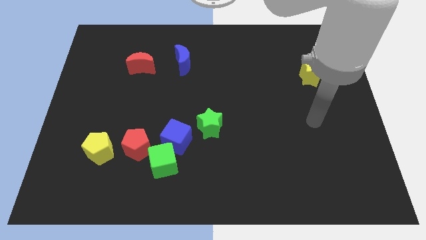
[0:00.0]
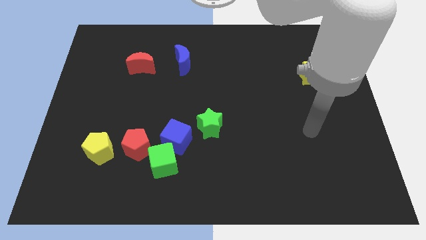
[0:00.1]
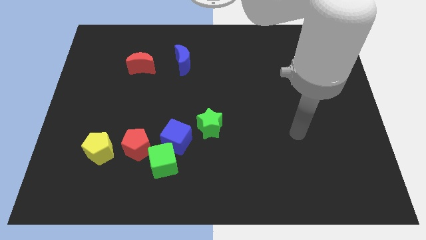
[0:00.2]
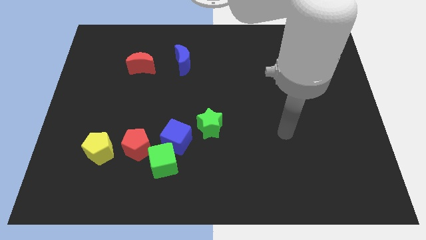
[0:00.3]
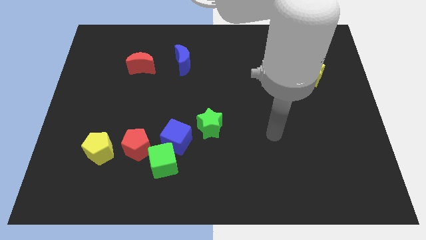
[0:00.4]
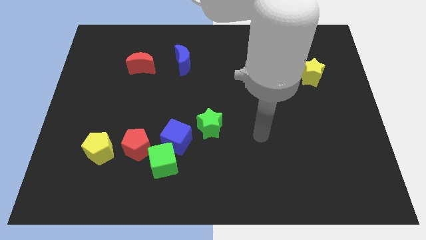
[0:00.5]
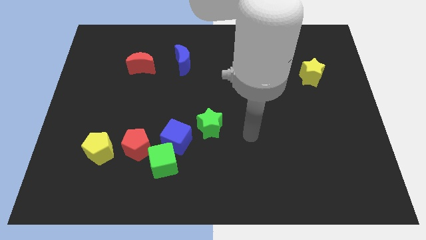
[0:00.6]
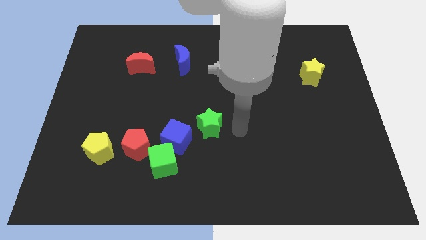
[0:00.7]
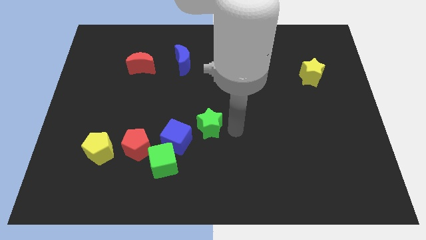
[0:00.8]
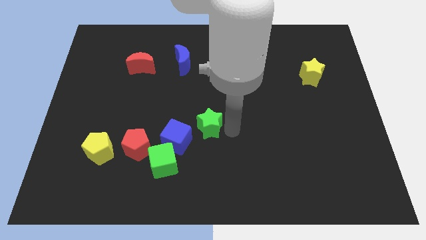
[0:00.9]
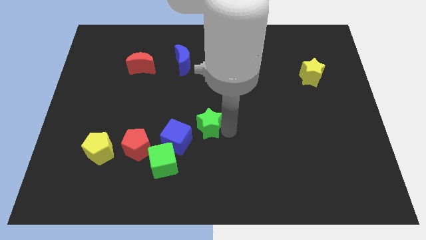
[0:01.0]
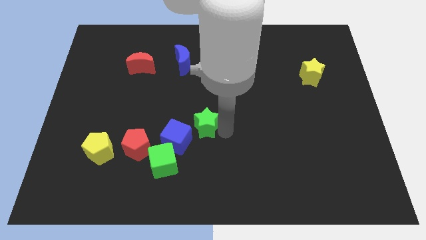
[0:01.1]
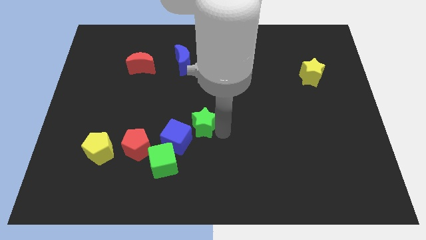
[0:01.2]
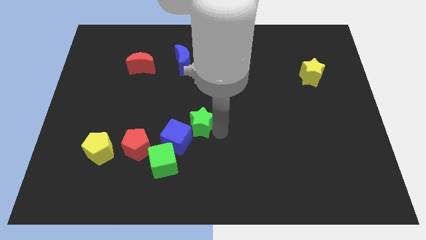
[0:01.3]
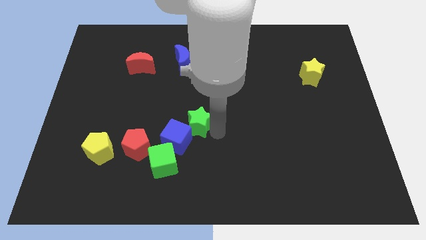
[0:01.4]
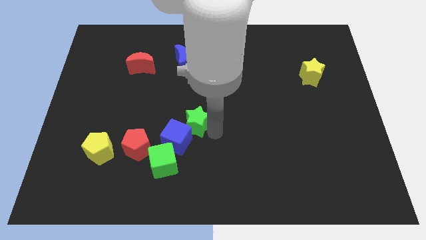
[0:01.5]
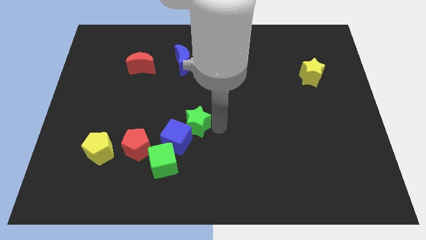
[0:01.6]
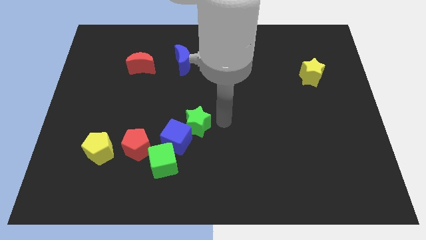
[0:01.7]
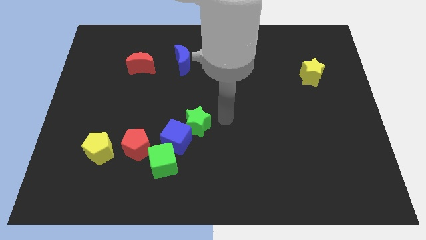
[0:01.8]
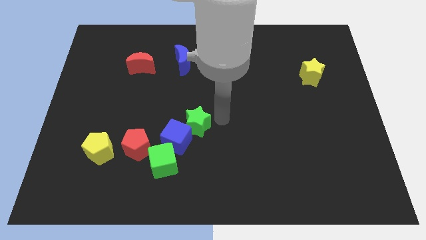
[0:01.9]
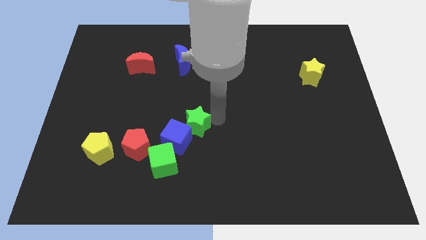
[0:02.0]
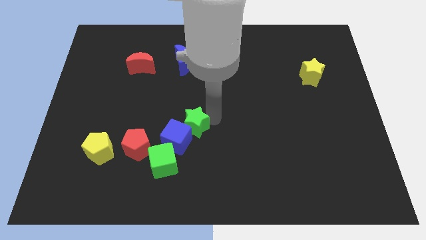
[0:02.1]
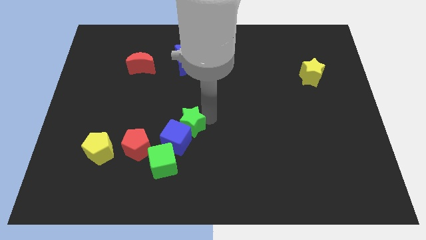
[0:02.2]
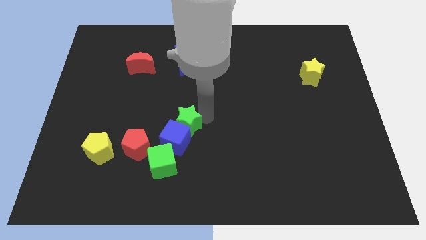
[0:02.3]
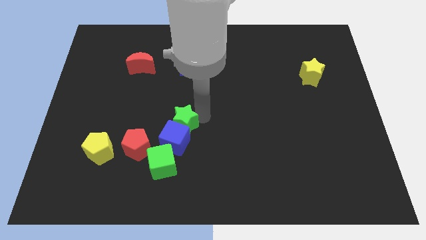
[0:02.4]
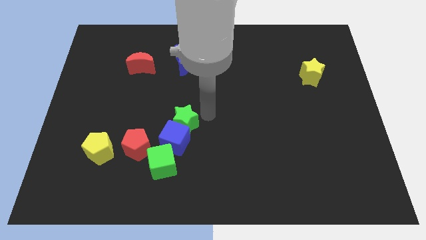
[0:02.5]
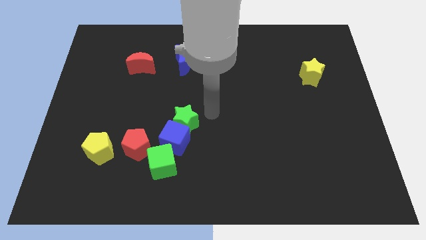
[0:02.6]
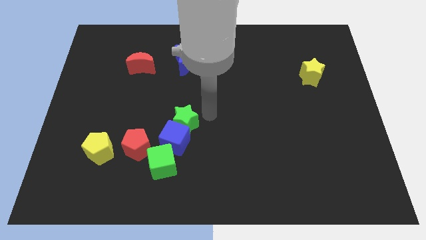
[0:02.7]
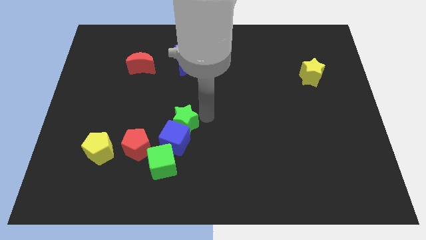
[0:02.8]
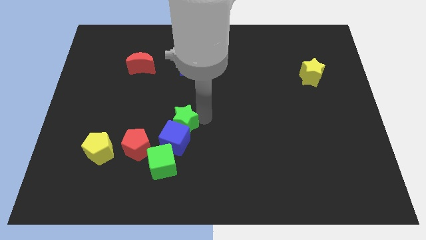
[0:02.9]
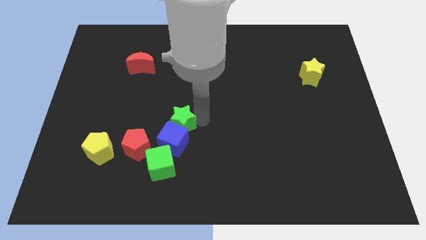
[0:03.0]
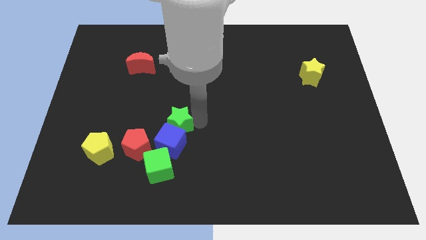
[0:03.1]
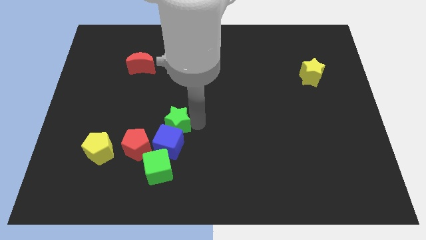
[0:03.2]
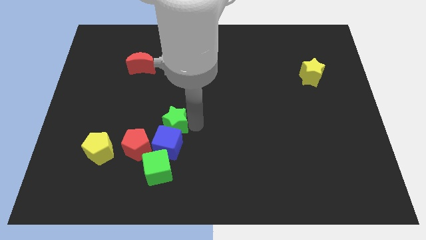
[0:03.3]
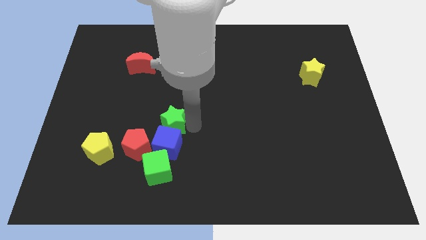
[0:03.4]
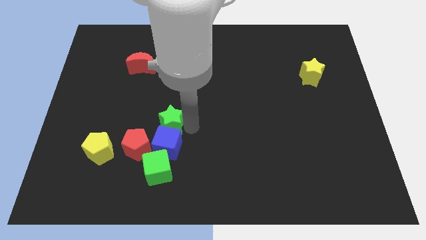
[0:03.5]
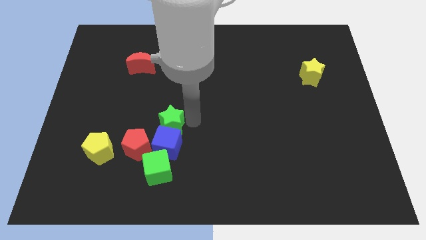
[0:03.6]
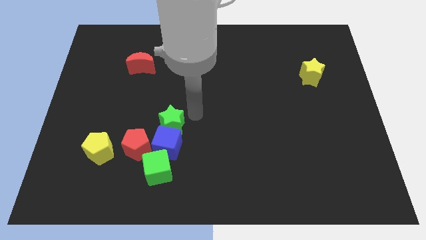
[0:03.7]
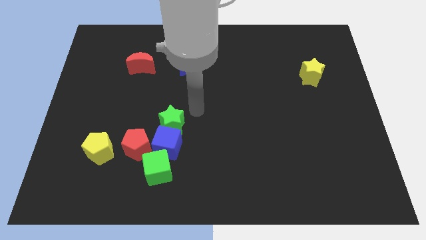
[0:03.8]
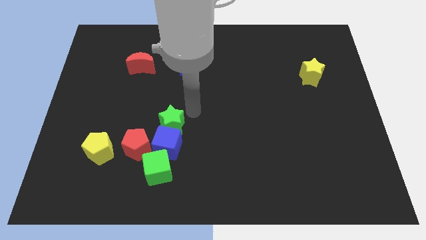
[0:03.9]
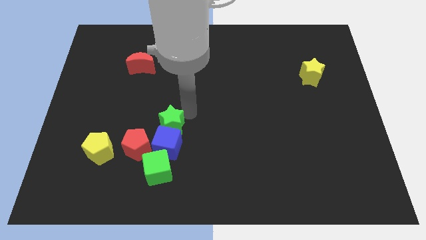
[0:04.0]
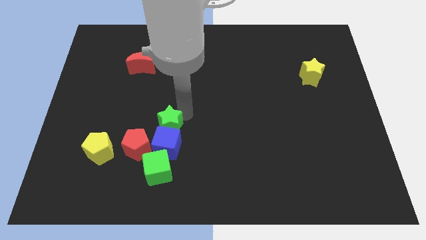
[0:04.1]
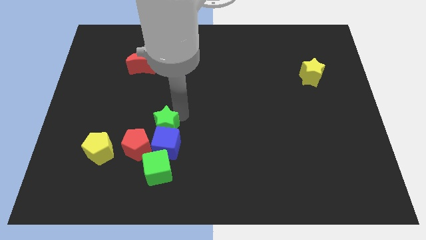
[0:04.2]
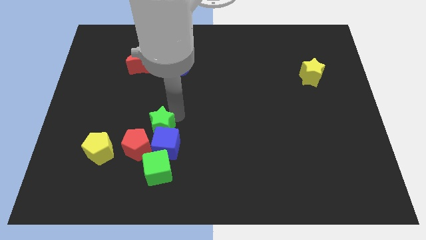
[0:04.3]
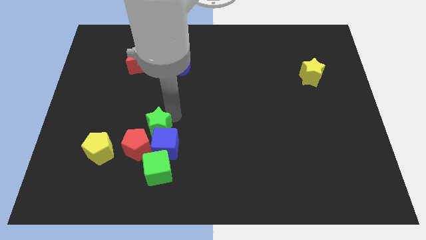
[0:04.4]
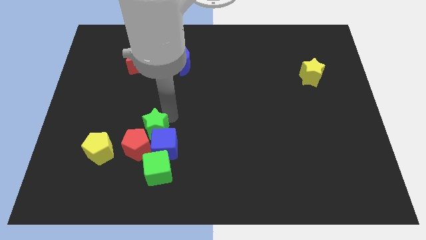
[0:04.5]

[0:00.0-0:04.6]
put the green star next to the red pentagon

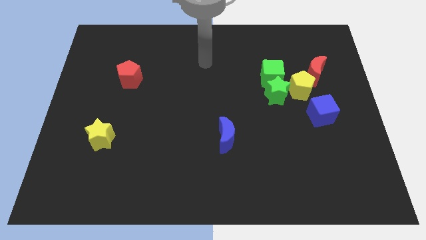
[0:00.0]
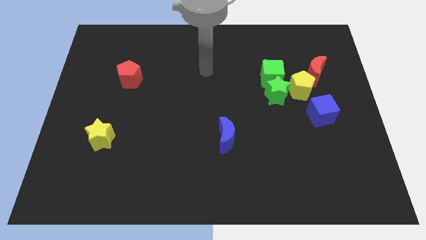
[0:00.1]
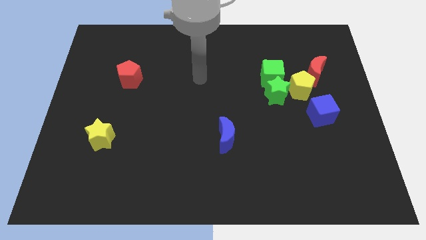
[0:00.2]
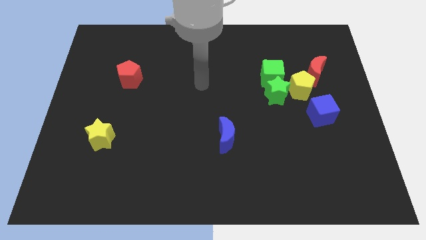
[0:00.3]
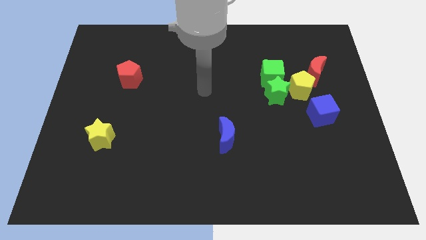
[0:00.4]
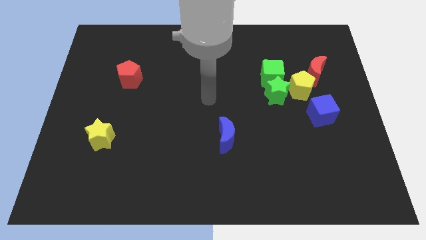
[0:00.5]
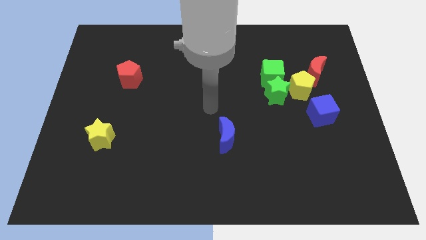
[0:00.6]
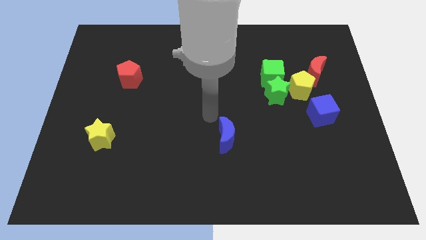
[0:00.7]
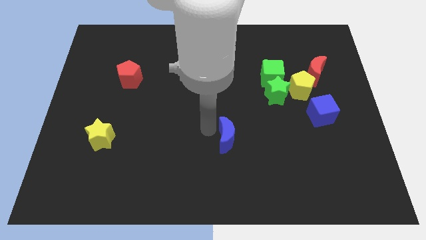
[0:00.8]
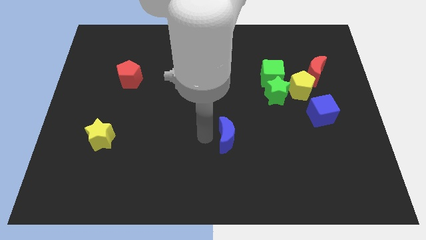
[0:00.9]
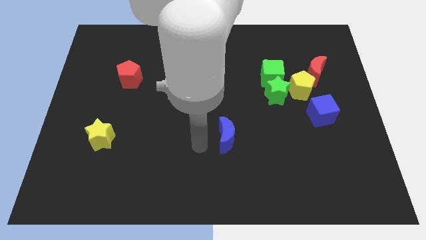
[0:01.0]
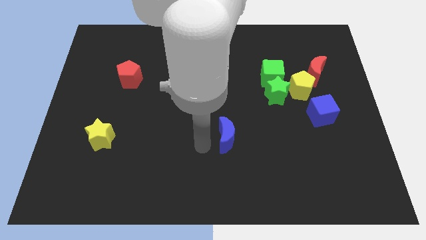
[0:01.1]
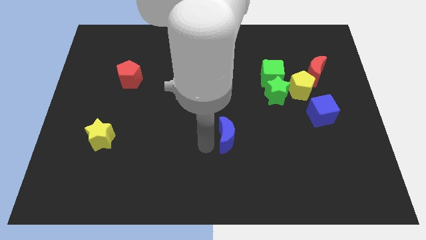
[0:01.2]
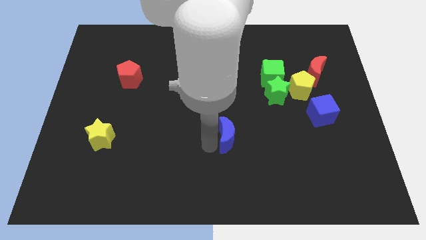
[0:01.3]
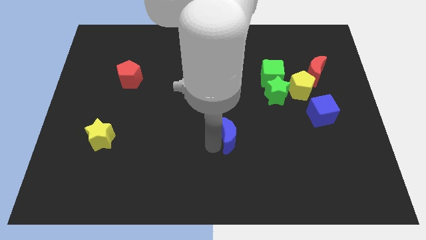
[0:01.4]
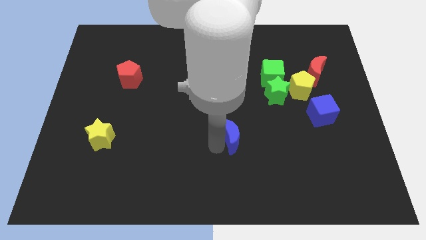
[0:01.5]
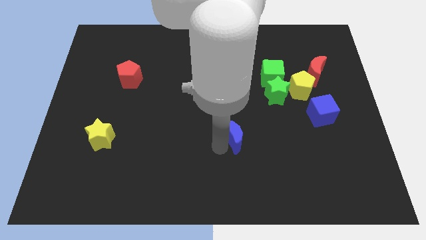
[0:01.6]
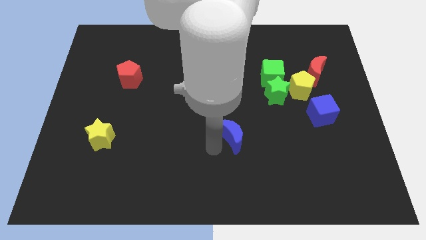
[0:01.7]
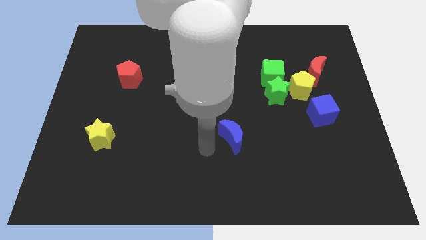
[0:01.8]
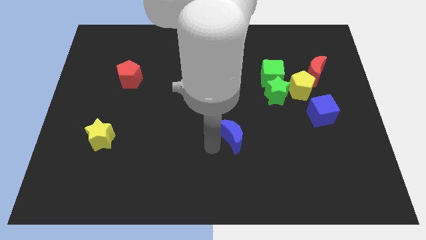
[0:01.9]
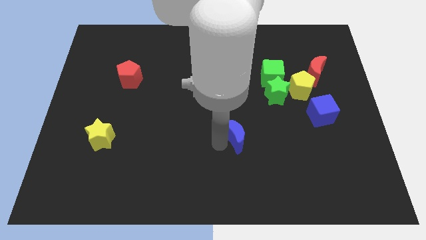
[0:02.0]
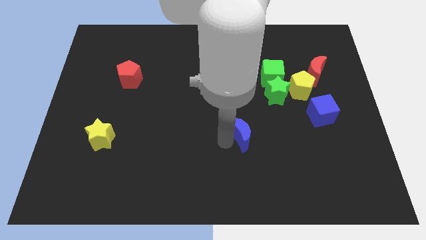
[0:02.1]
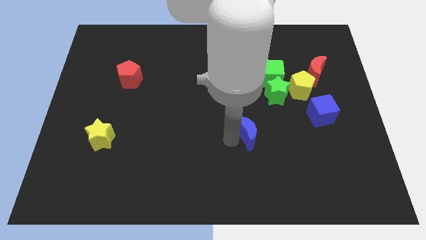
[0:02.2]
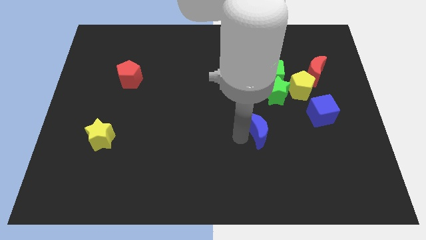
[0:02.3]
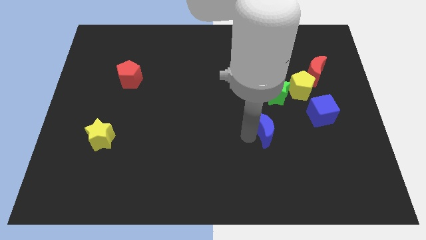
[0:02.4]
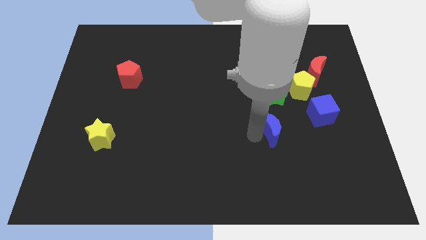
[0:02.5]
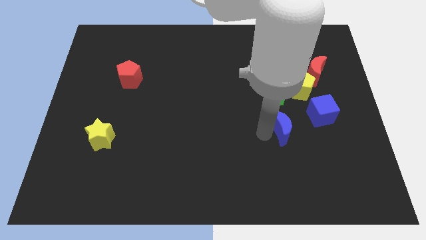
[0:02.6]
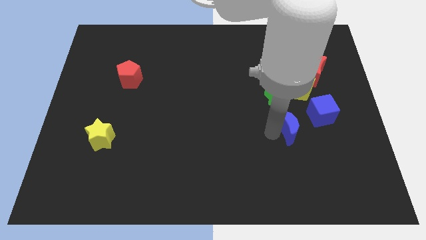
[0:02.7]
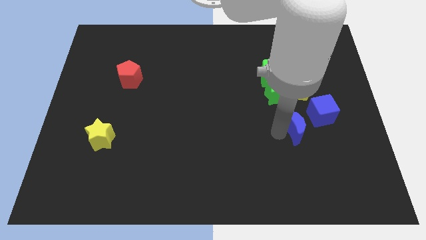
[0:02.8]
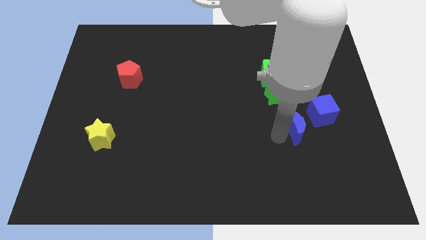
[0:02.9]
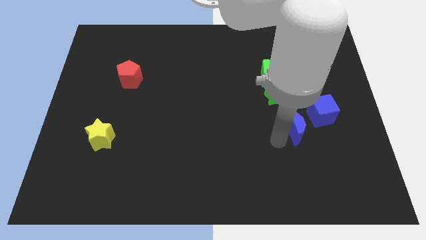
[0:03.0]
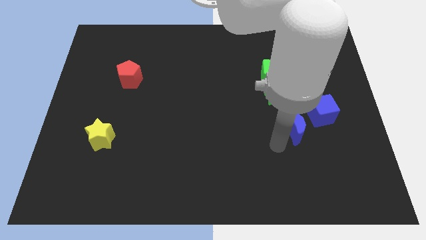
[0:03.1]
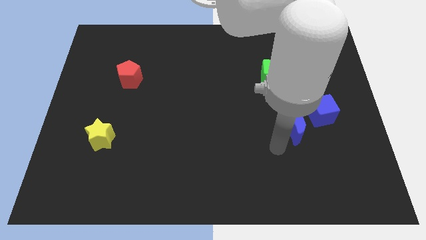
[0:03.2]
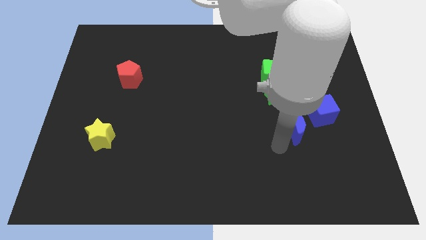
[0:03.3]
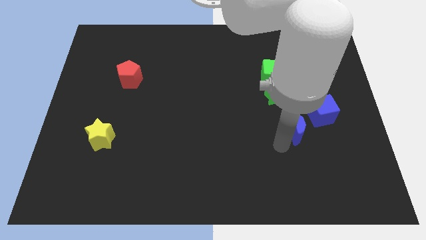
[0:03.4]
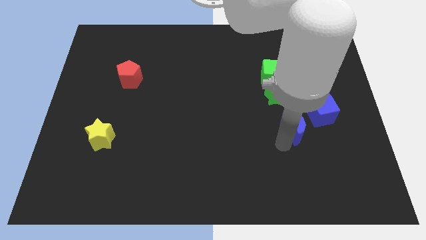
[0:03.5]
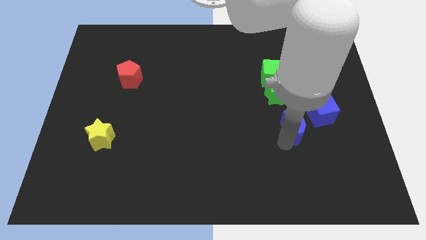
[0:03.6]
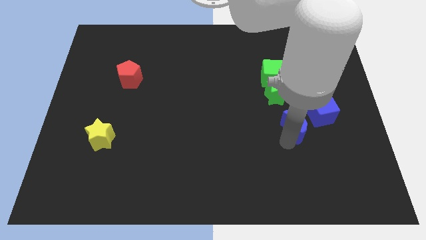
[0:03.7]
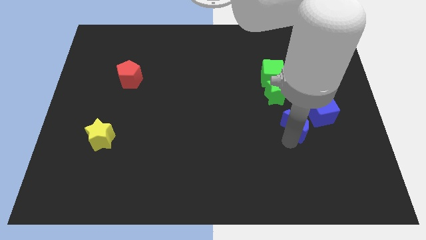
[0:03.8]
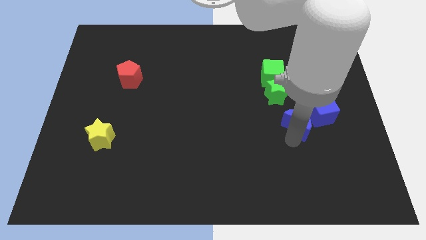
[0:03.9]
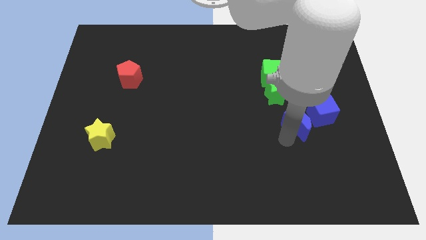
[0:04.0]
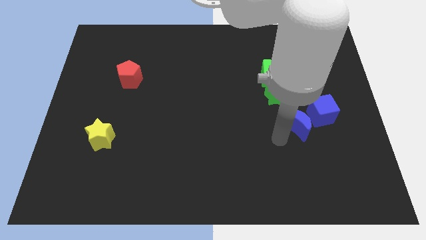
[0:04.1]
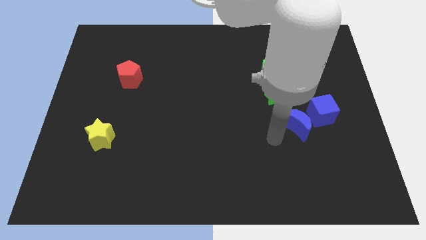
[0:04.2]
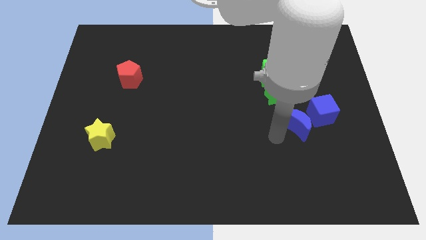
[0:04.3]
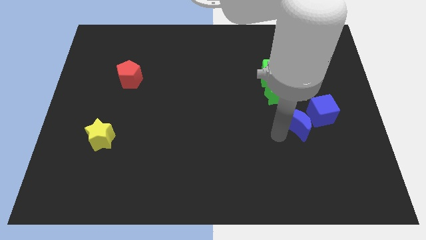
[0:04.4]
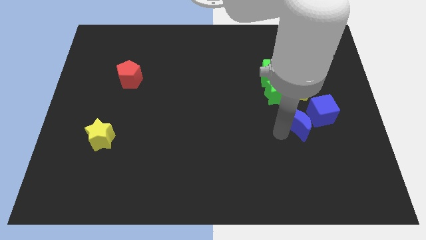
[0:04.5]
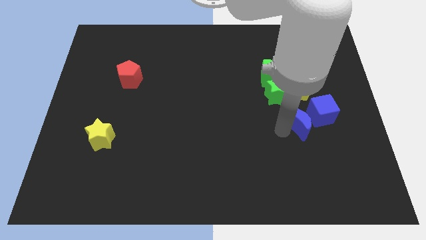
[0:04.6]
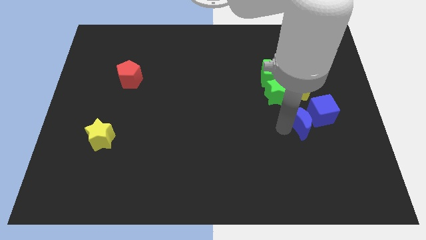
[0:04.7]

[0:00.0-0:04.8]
put the blue moon towards the blue cube
